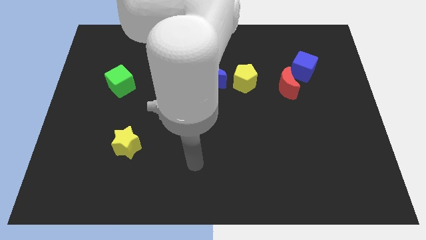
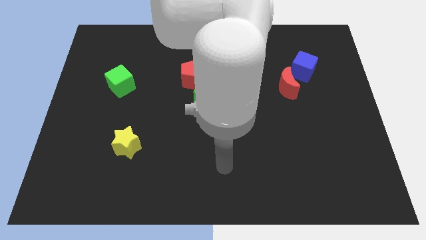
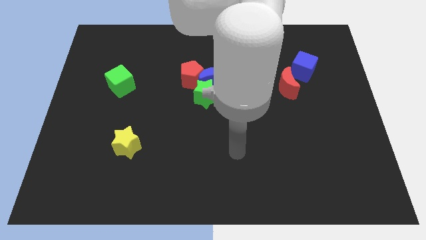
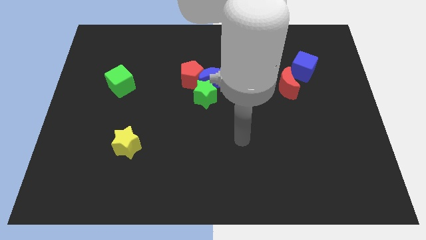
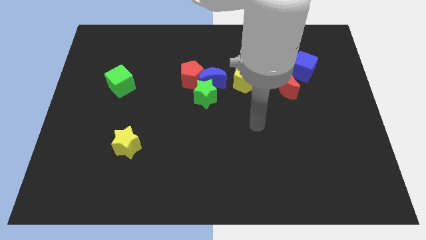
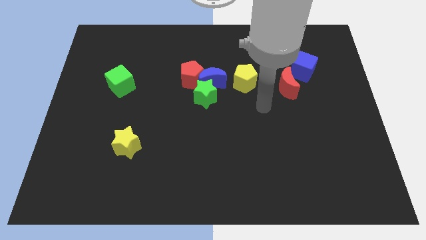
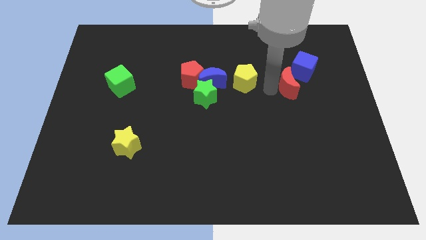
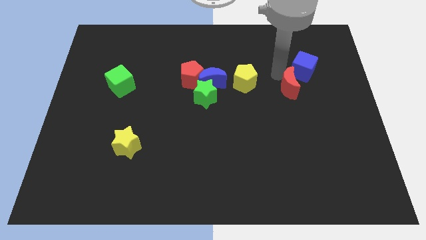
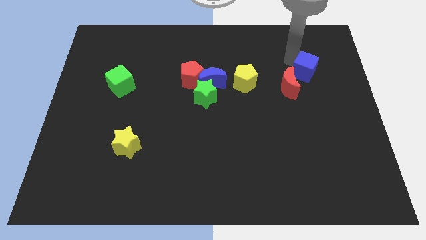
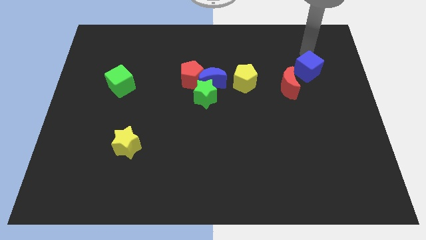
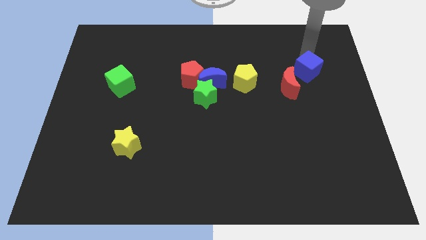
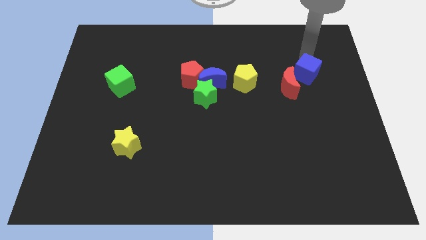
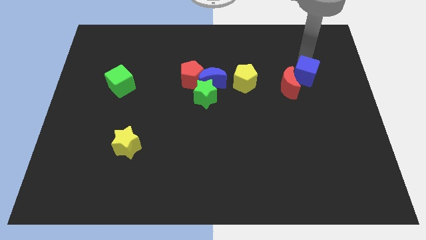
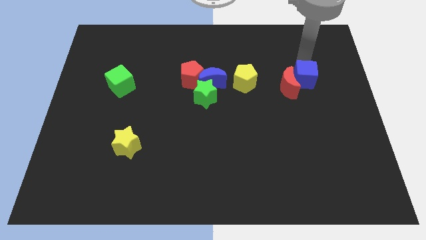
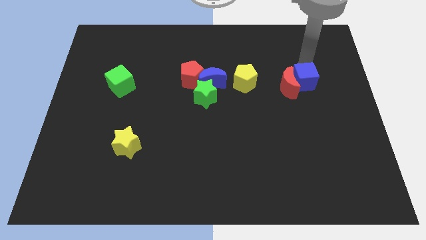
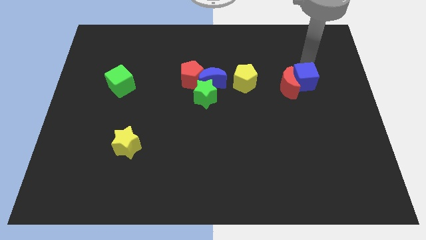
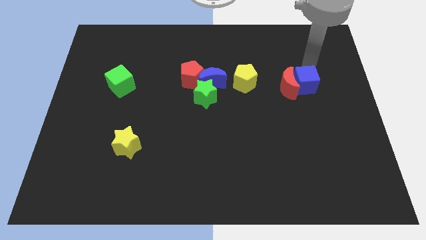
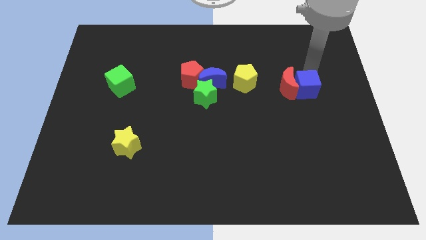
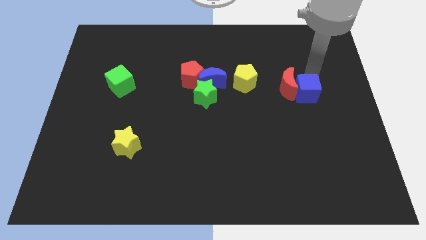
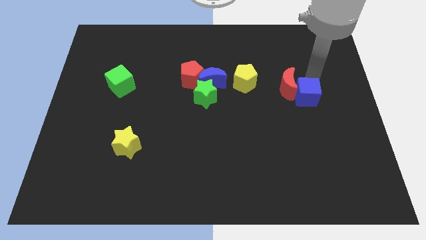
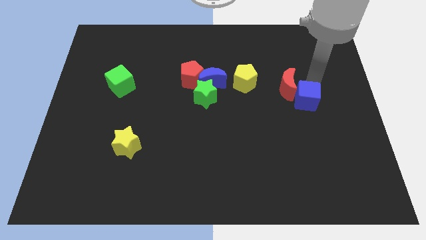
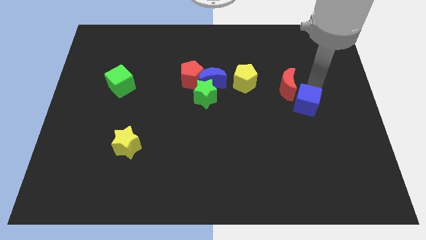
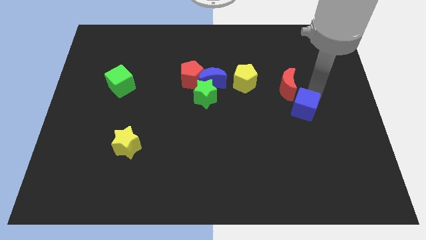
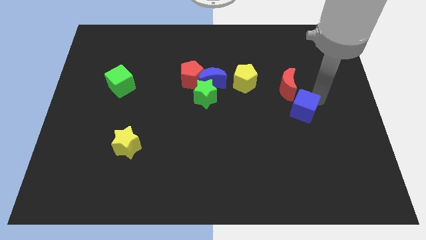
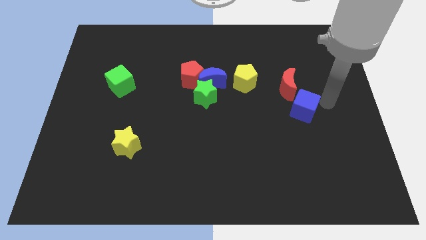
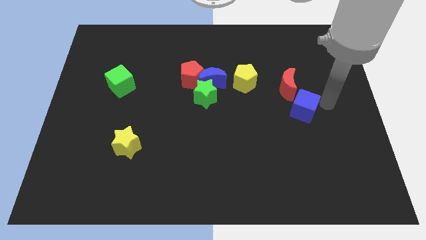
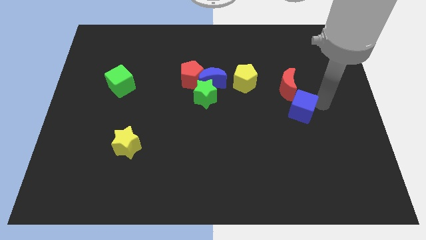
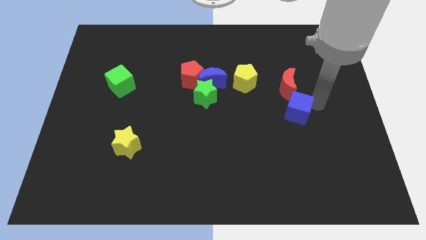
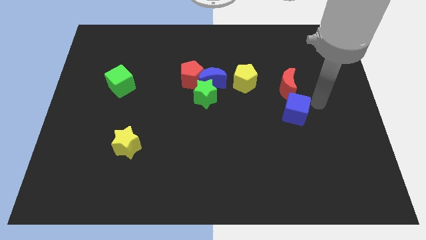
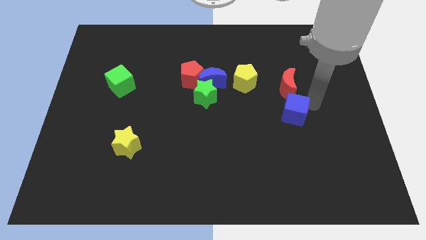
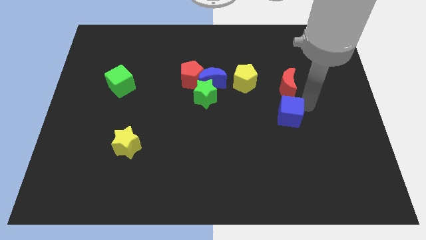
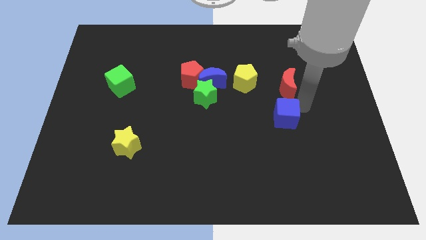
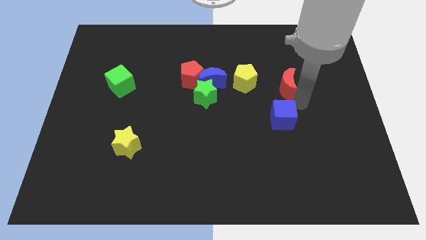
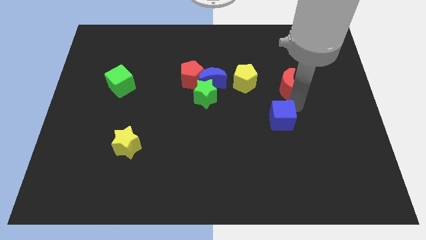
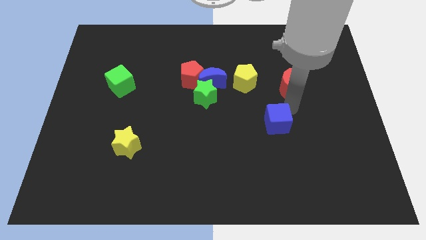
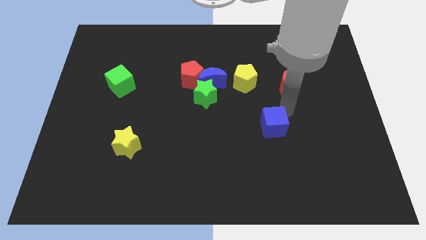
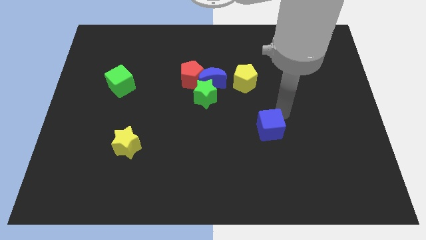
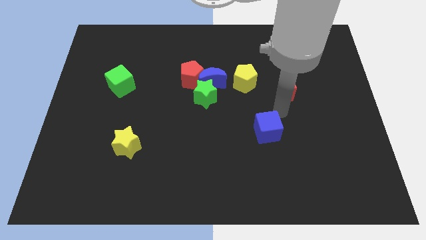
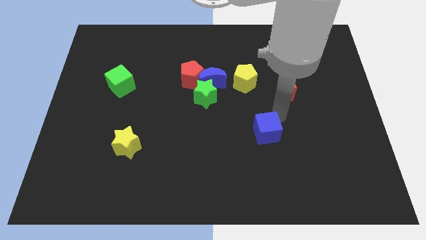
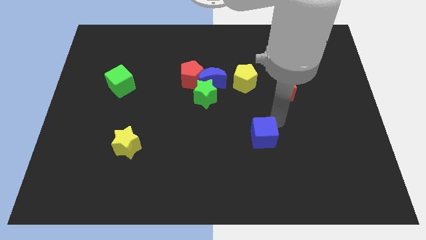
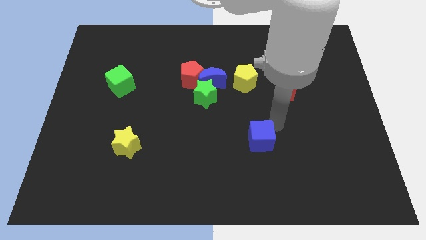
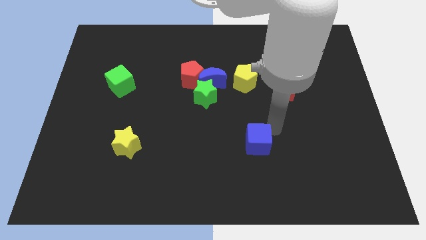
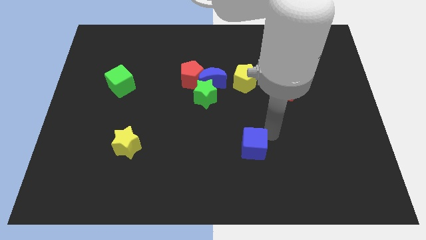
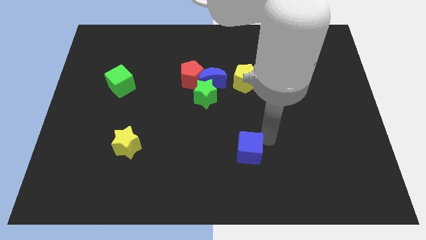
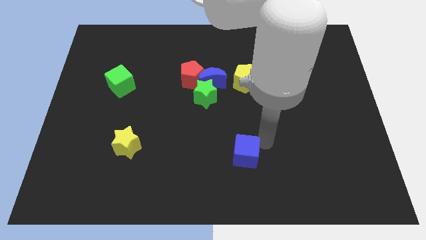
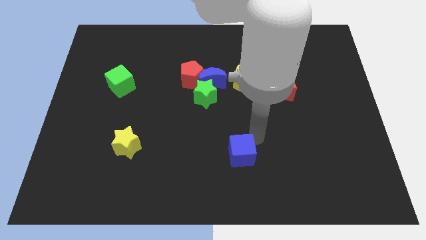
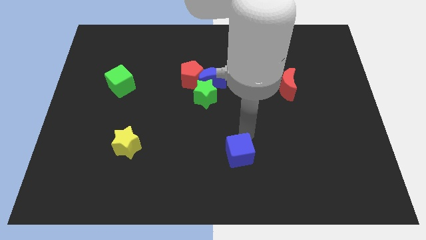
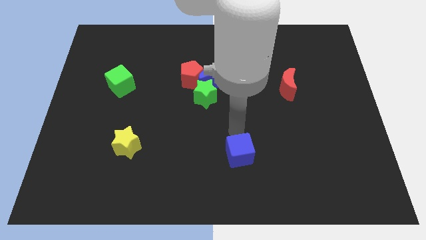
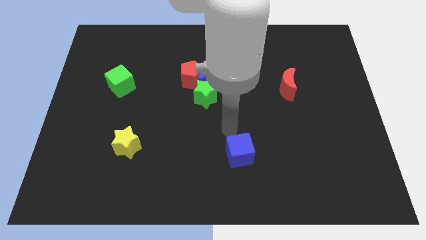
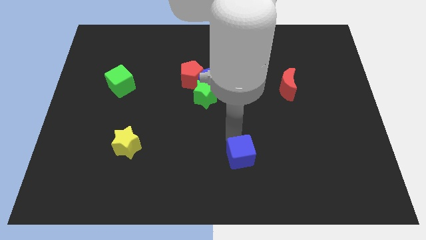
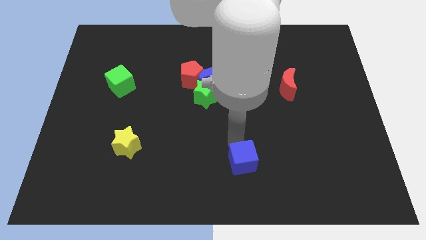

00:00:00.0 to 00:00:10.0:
push the blue cube to the bottom side

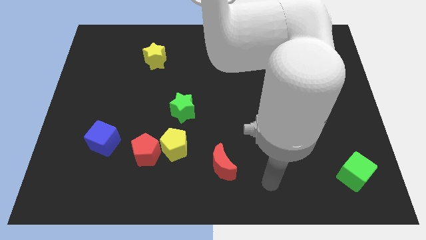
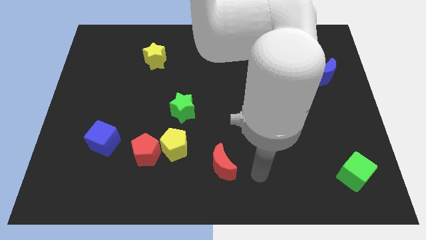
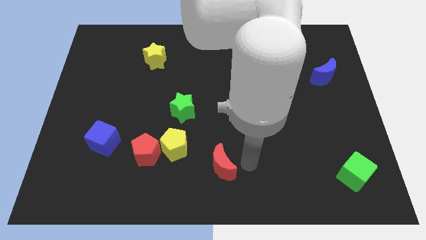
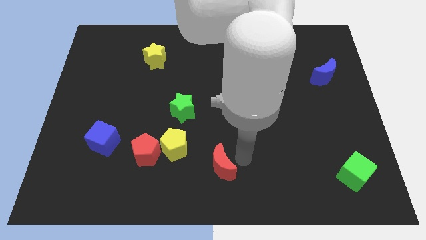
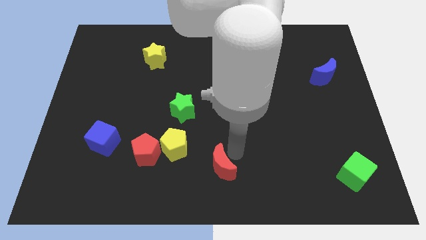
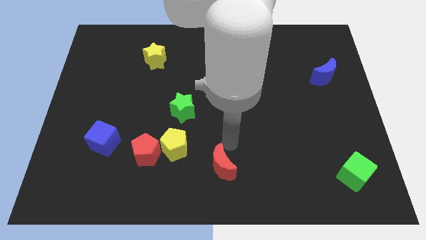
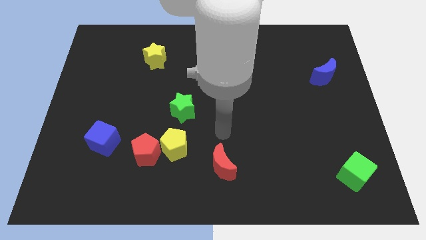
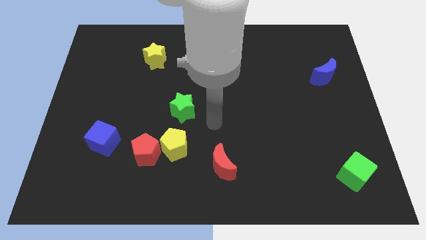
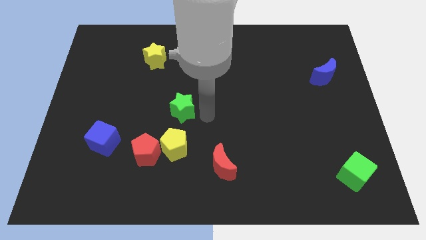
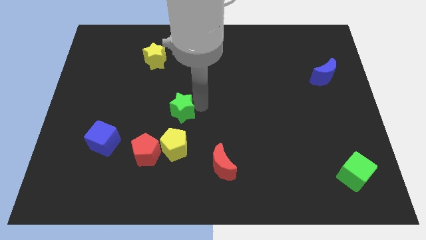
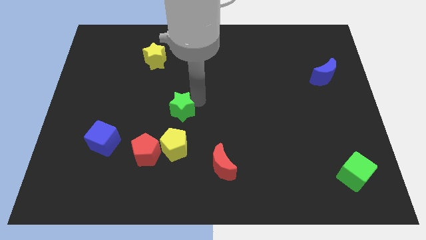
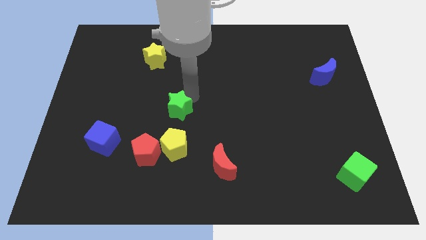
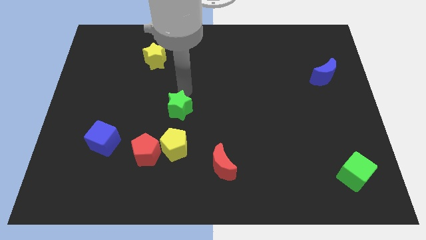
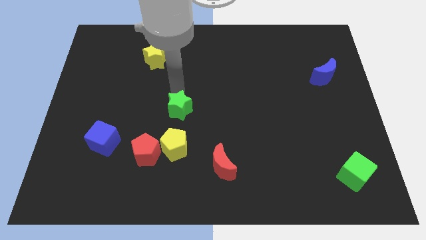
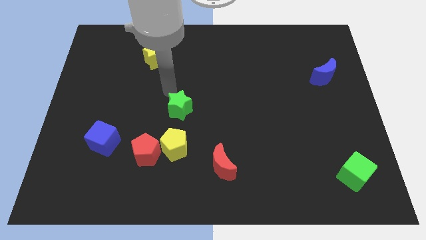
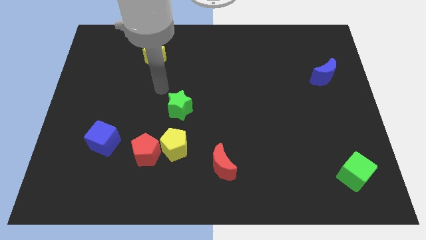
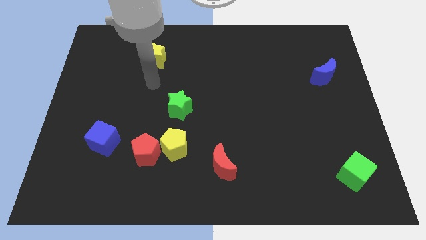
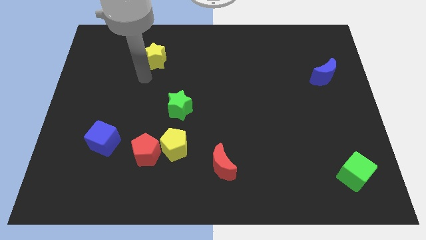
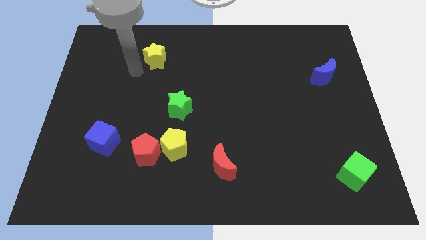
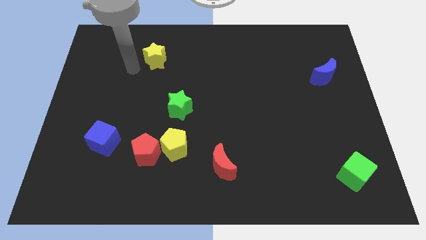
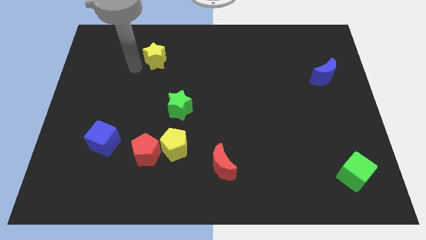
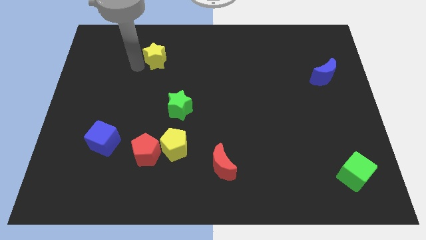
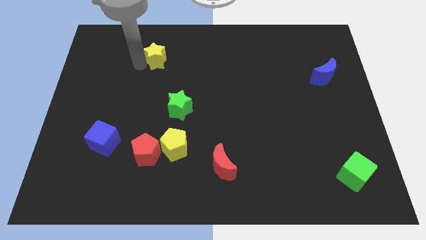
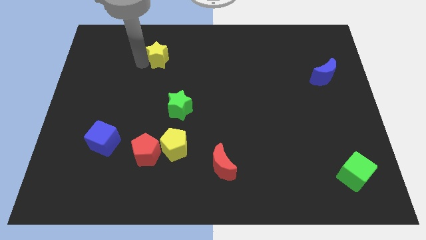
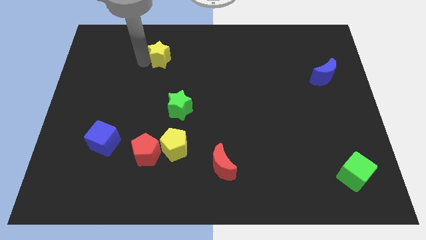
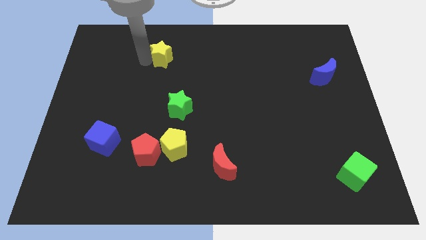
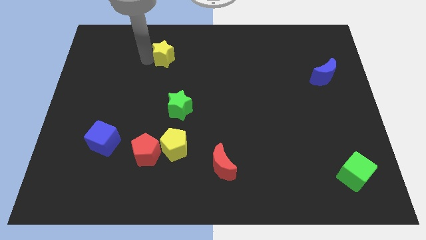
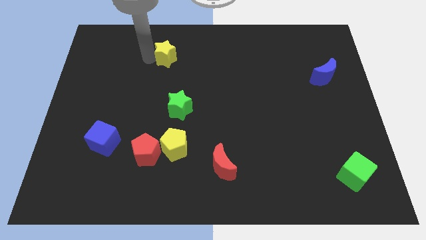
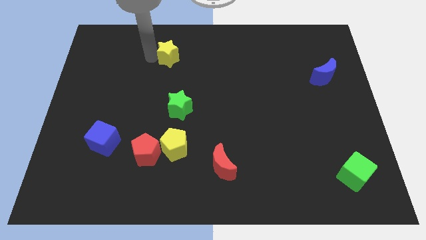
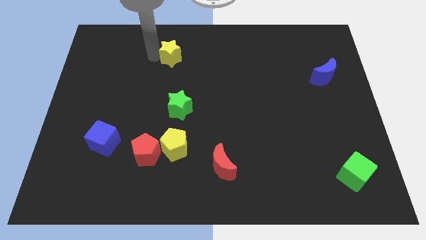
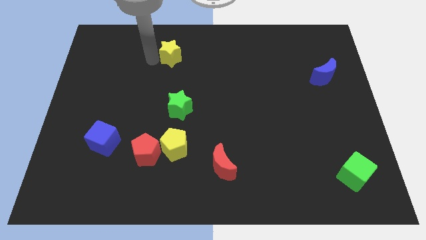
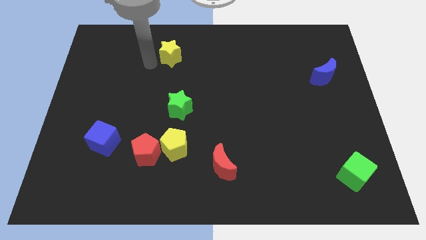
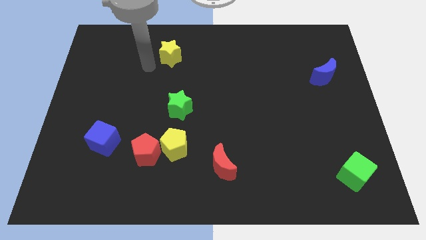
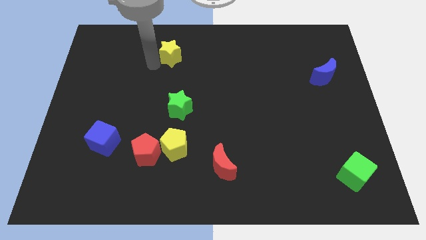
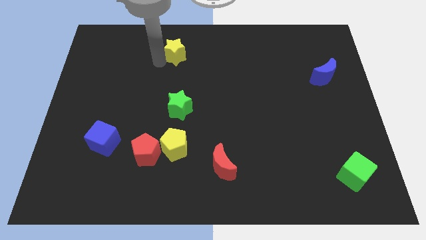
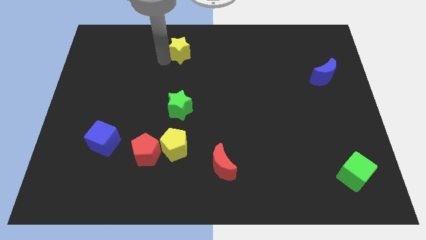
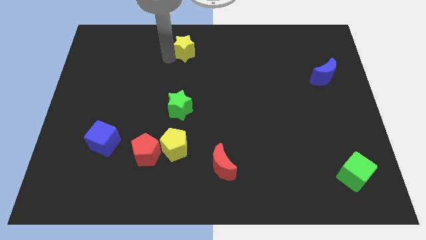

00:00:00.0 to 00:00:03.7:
put the yellow star to the top side
